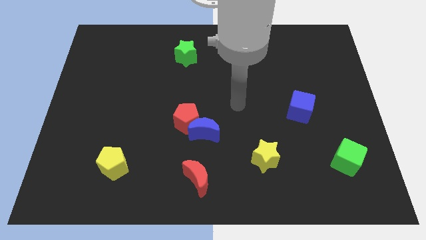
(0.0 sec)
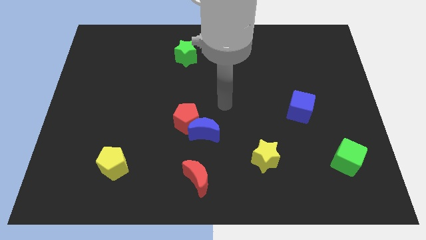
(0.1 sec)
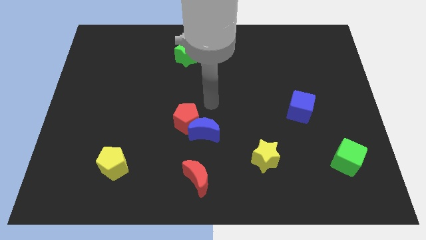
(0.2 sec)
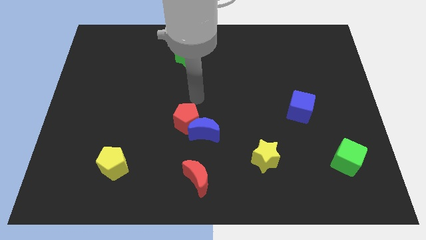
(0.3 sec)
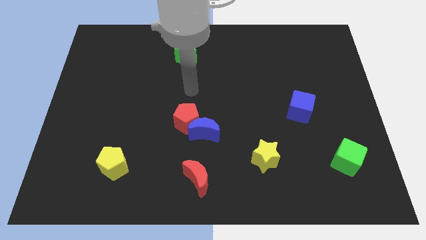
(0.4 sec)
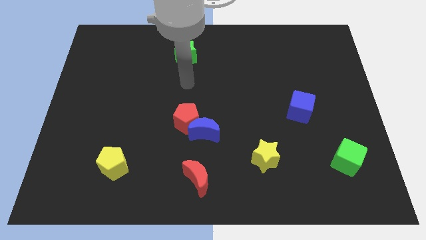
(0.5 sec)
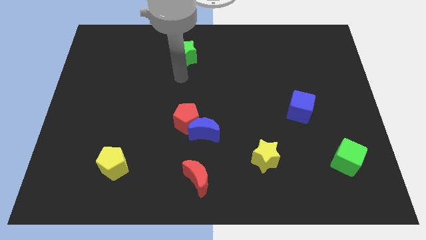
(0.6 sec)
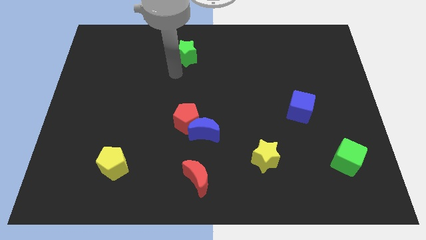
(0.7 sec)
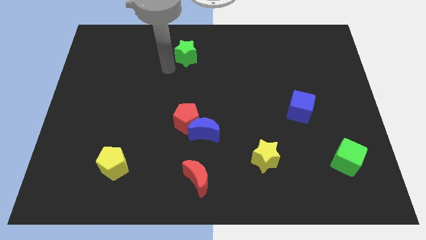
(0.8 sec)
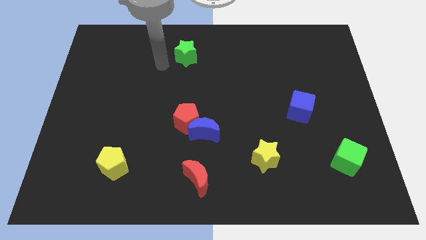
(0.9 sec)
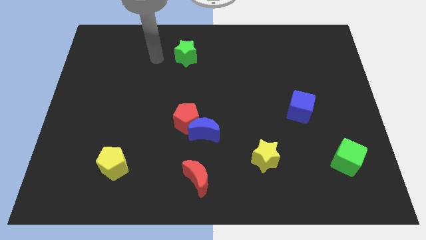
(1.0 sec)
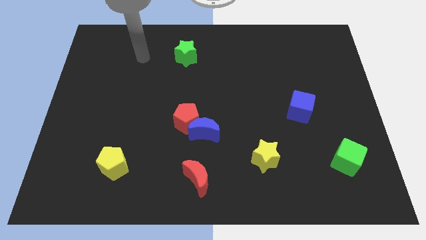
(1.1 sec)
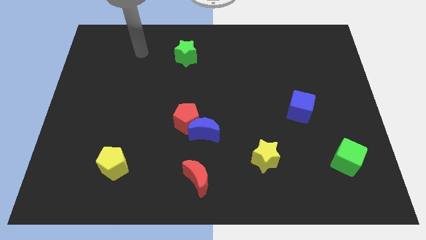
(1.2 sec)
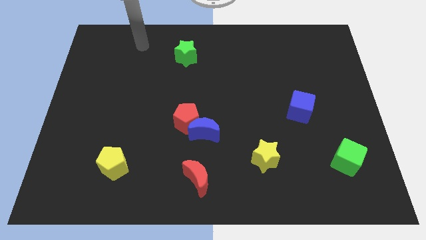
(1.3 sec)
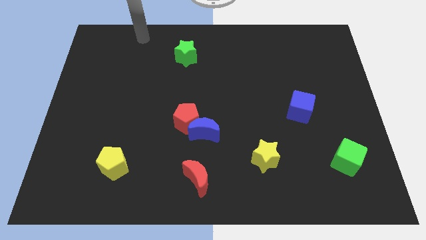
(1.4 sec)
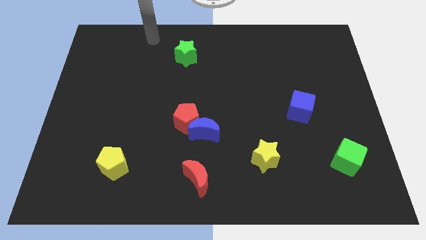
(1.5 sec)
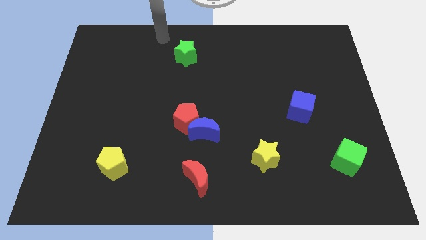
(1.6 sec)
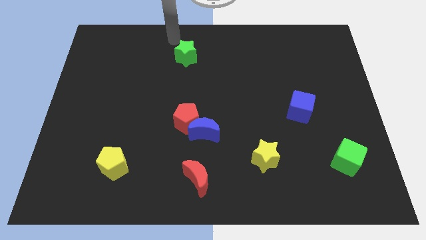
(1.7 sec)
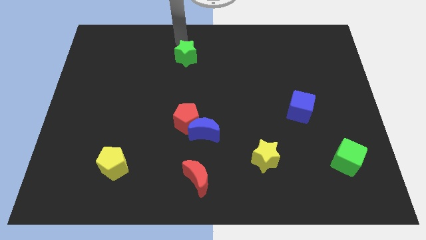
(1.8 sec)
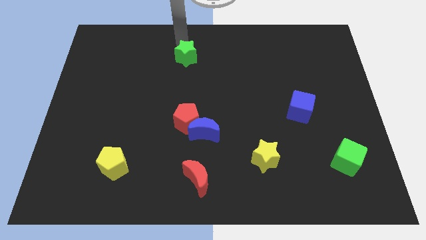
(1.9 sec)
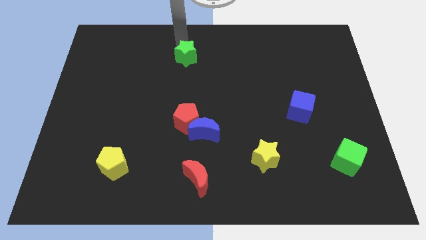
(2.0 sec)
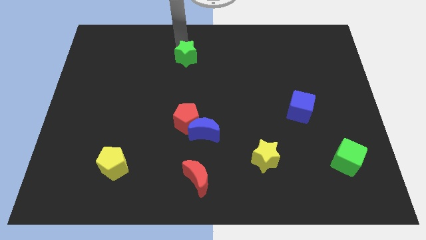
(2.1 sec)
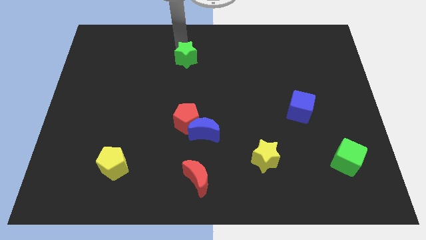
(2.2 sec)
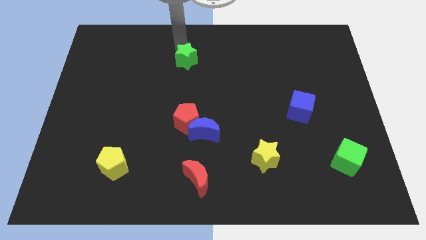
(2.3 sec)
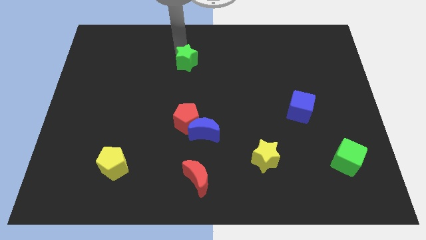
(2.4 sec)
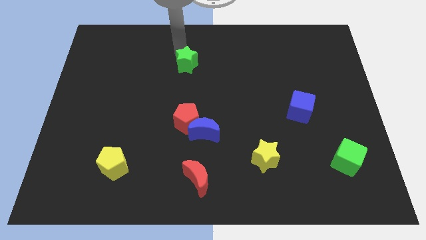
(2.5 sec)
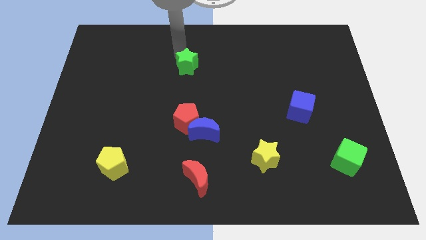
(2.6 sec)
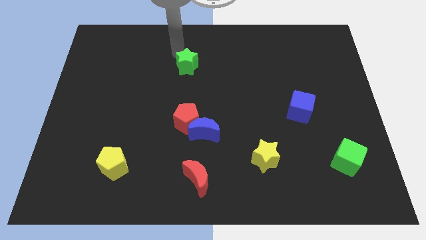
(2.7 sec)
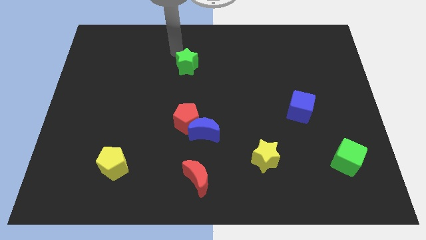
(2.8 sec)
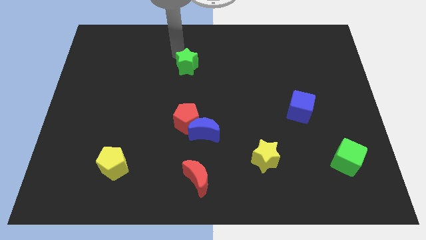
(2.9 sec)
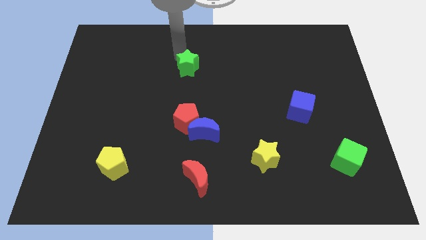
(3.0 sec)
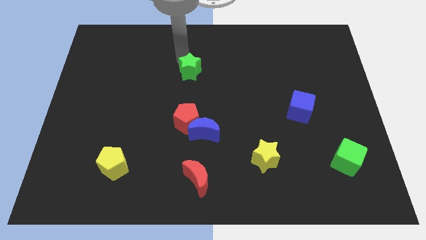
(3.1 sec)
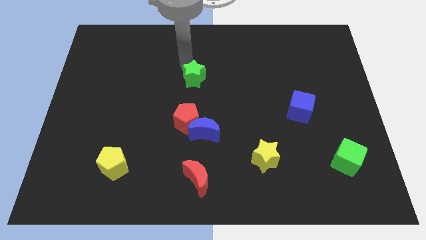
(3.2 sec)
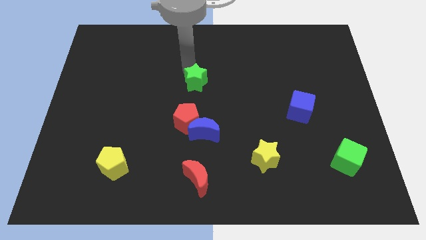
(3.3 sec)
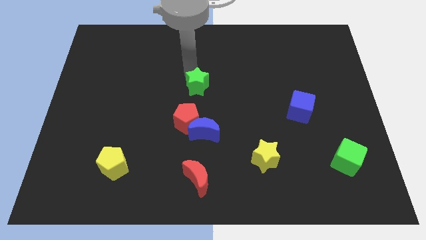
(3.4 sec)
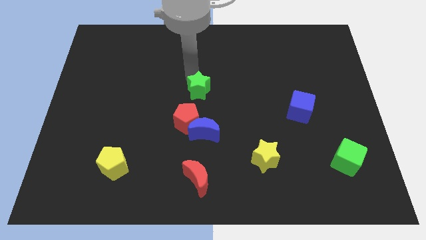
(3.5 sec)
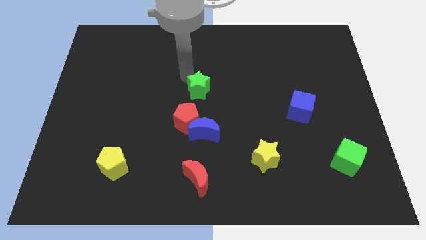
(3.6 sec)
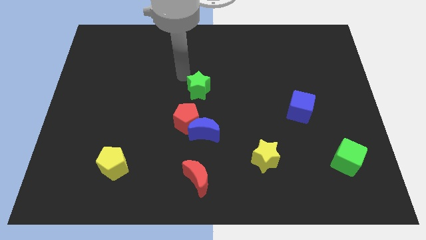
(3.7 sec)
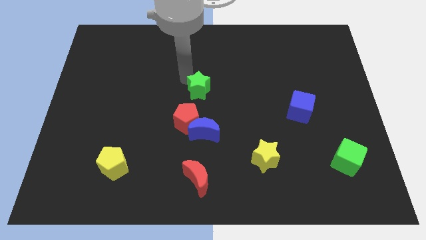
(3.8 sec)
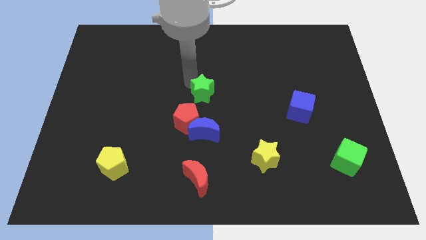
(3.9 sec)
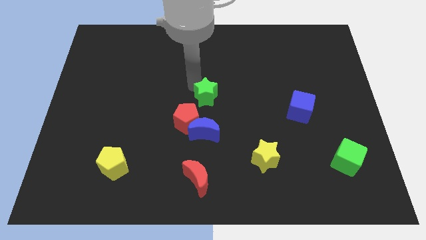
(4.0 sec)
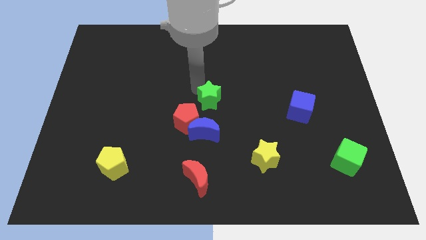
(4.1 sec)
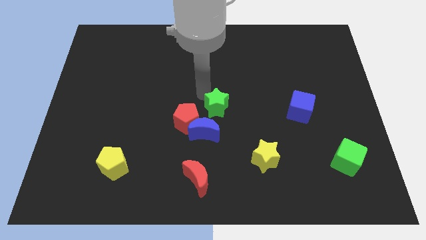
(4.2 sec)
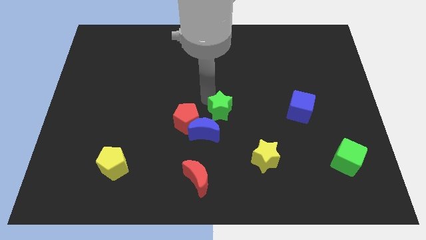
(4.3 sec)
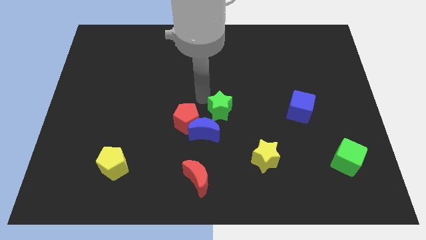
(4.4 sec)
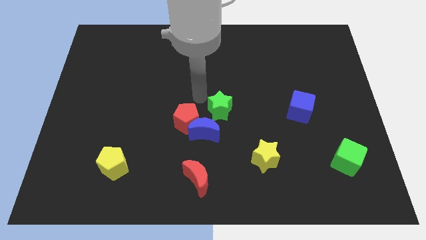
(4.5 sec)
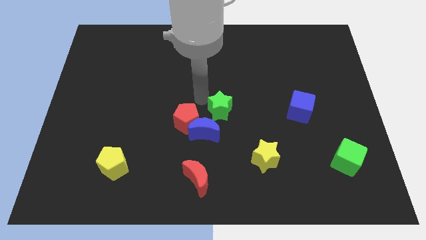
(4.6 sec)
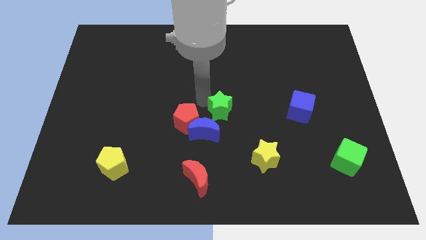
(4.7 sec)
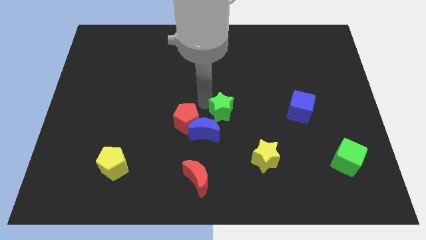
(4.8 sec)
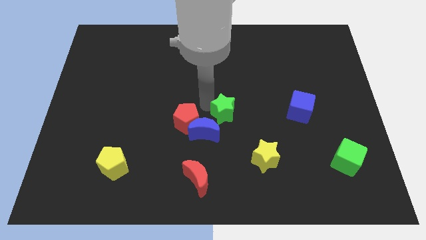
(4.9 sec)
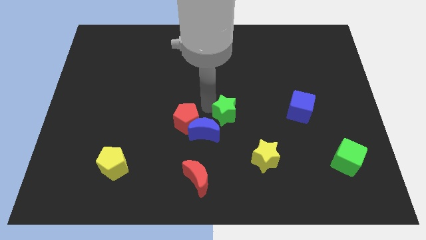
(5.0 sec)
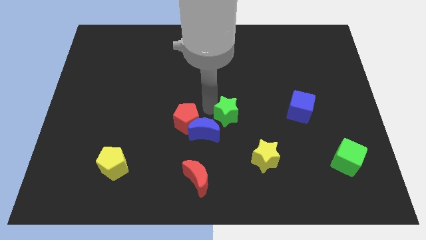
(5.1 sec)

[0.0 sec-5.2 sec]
put the green star to the right of the blue moon

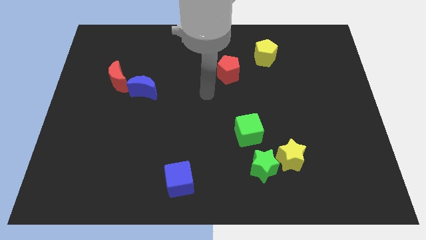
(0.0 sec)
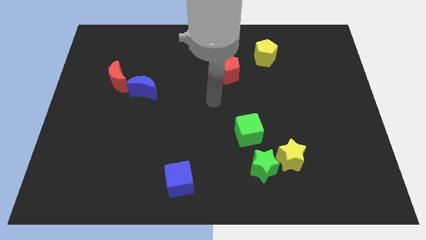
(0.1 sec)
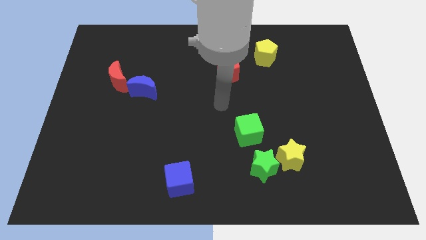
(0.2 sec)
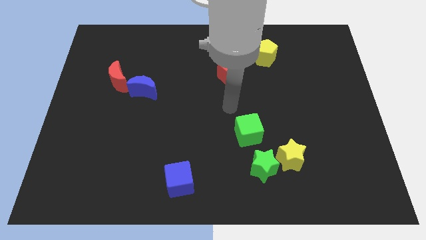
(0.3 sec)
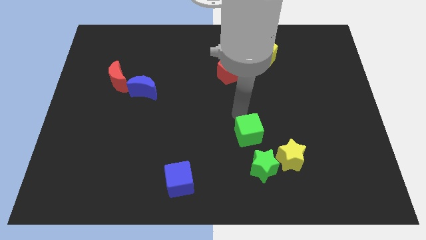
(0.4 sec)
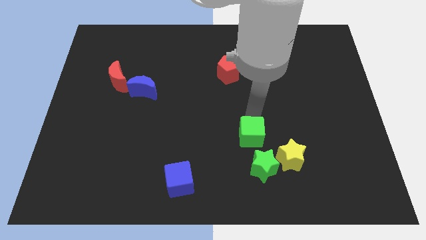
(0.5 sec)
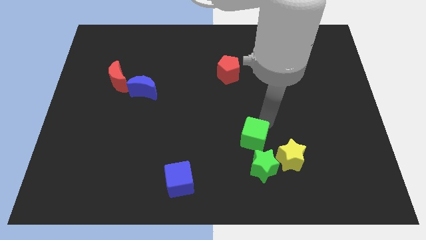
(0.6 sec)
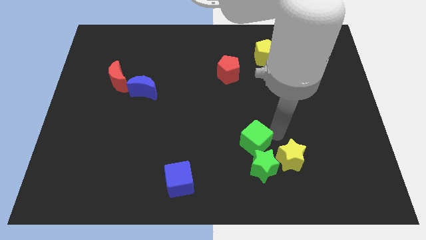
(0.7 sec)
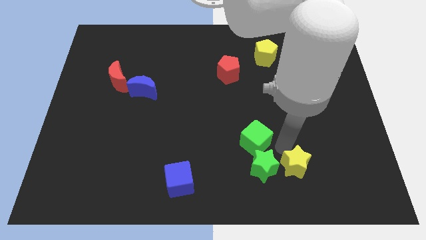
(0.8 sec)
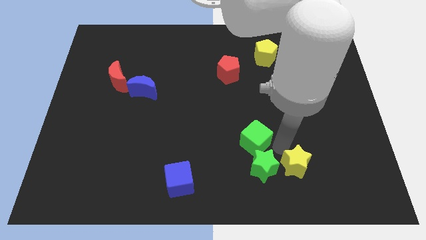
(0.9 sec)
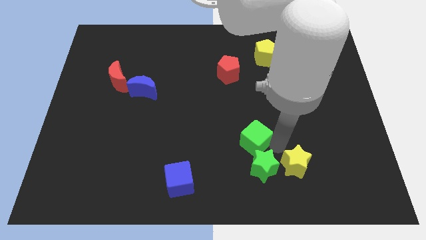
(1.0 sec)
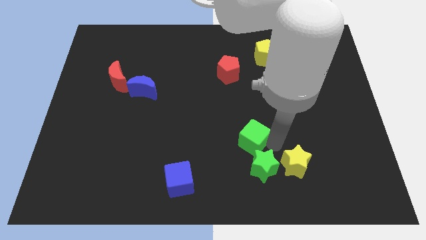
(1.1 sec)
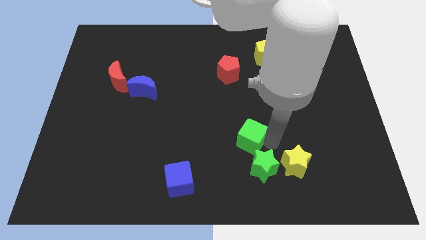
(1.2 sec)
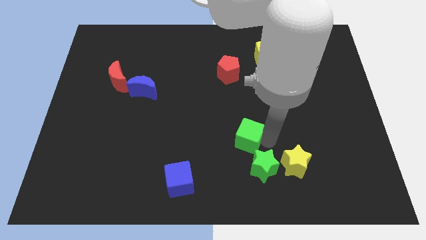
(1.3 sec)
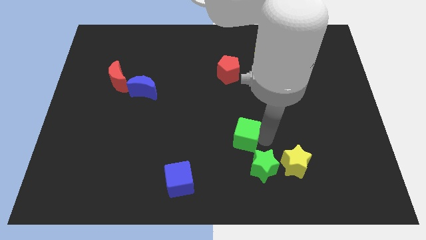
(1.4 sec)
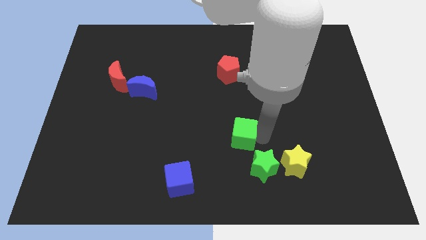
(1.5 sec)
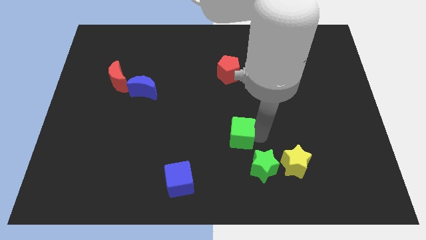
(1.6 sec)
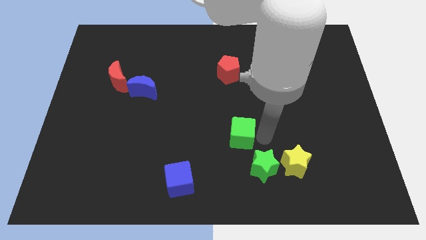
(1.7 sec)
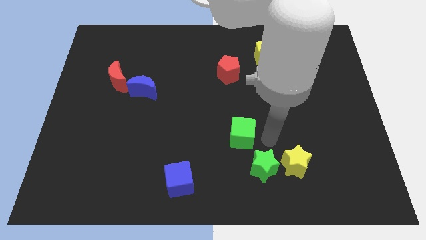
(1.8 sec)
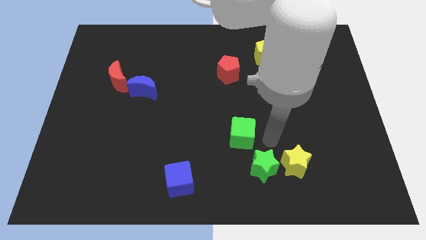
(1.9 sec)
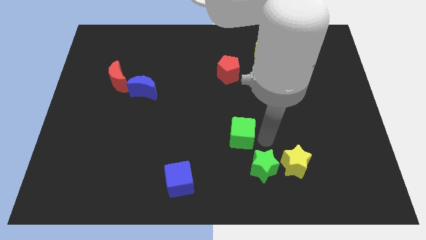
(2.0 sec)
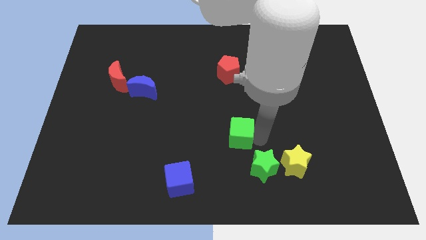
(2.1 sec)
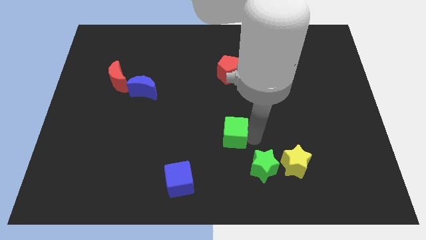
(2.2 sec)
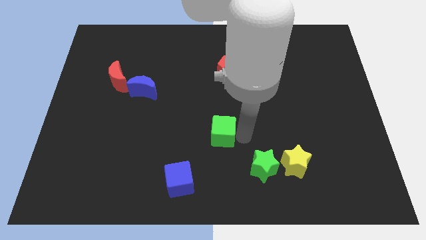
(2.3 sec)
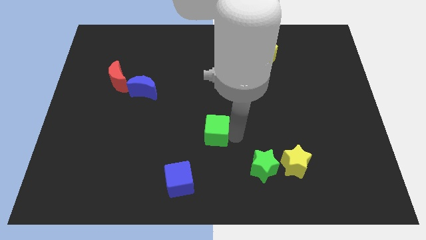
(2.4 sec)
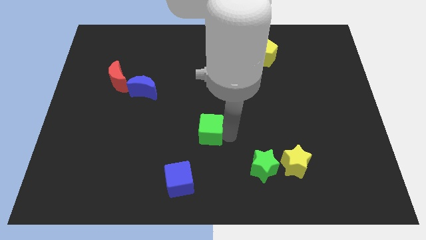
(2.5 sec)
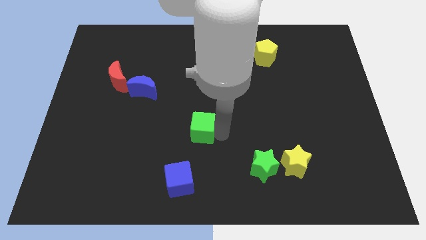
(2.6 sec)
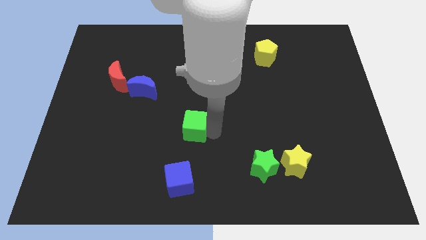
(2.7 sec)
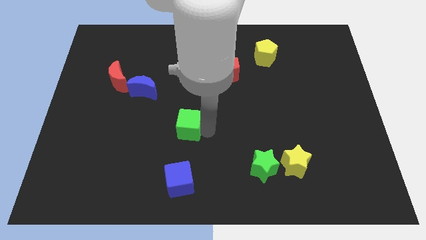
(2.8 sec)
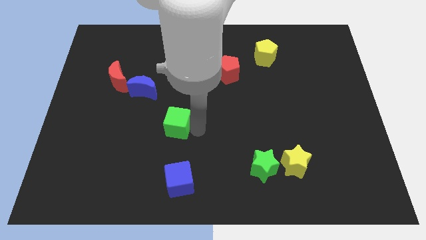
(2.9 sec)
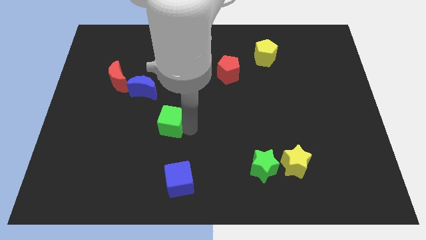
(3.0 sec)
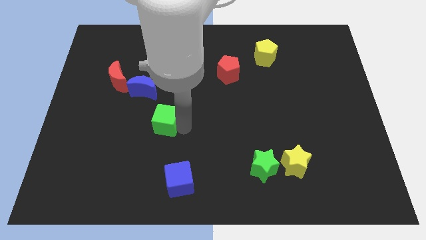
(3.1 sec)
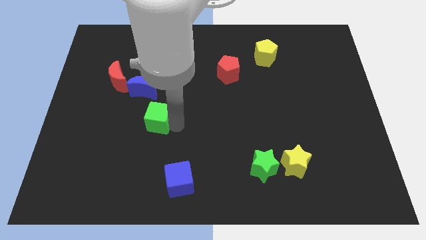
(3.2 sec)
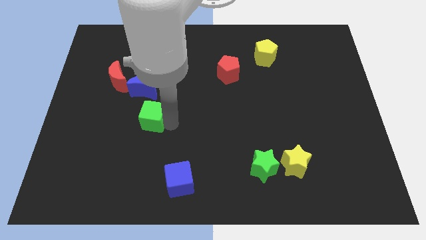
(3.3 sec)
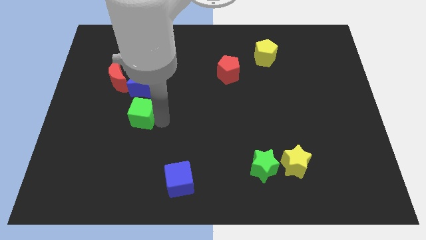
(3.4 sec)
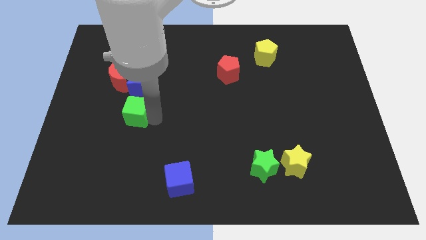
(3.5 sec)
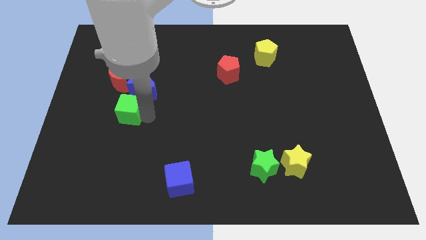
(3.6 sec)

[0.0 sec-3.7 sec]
slide the green cube to the bottom side of the red moon
